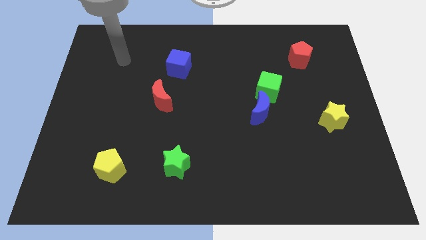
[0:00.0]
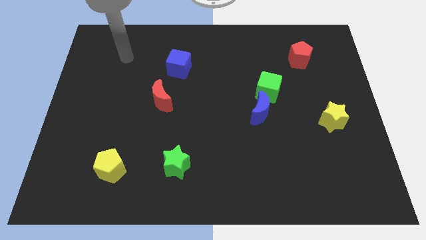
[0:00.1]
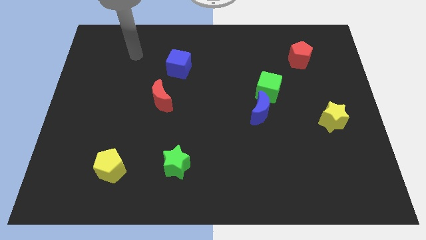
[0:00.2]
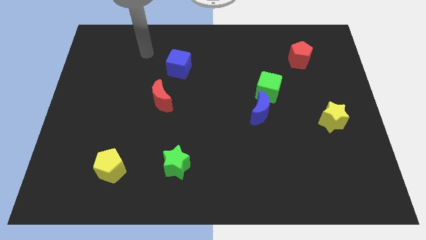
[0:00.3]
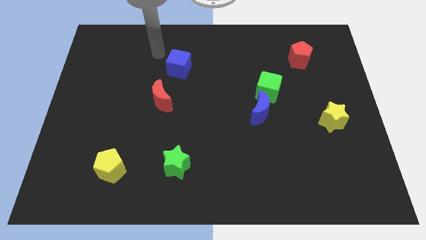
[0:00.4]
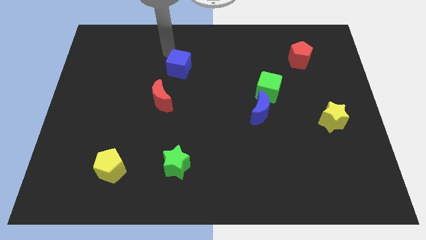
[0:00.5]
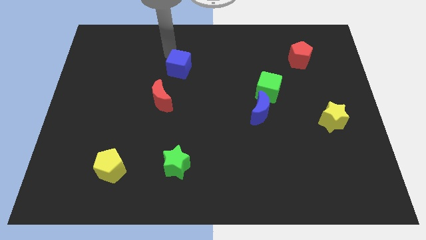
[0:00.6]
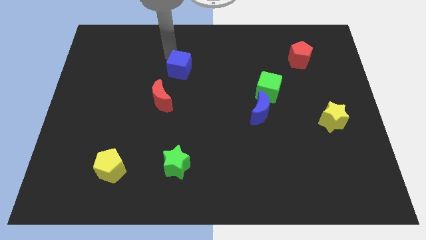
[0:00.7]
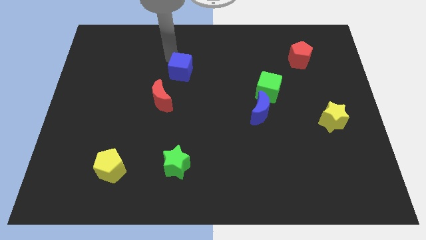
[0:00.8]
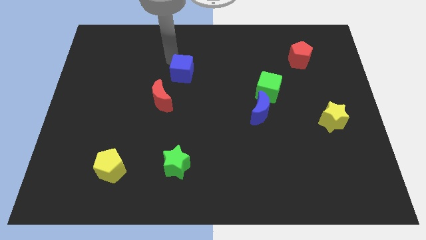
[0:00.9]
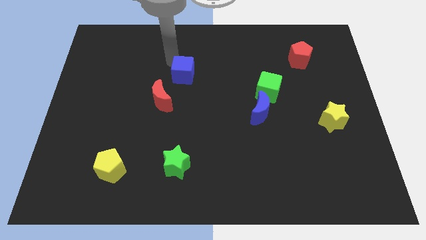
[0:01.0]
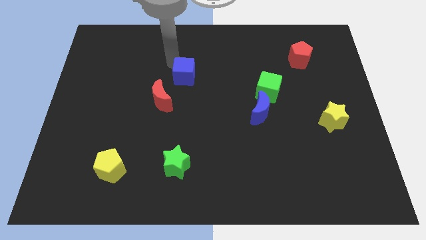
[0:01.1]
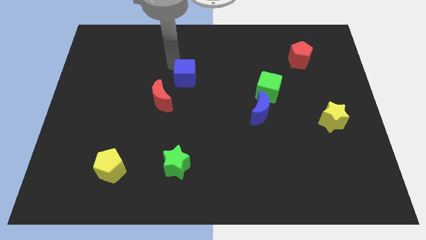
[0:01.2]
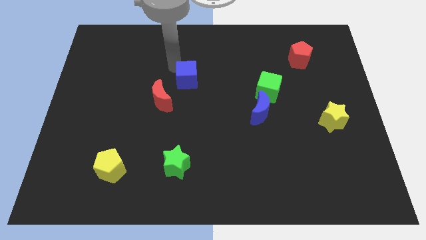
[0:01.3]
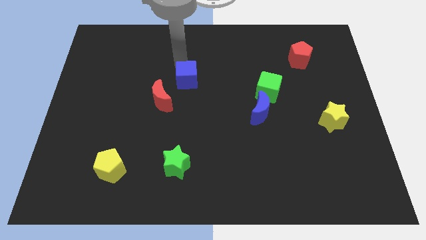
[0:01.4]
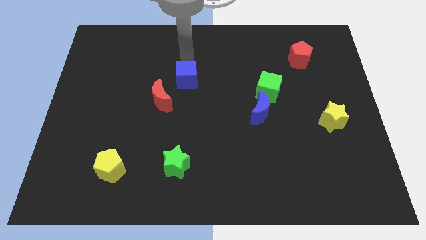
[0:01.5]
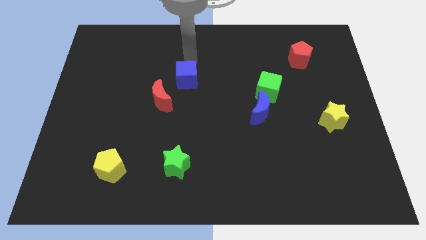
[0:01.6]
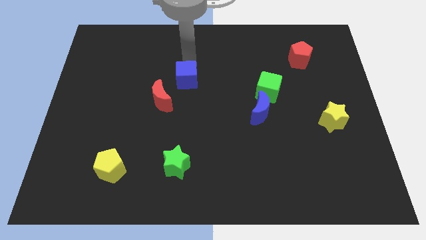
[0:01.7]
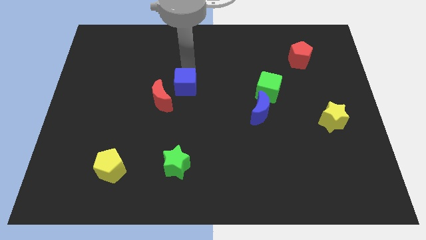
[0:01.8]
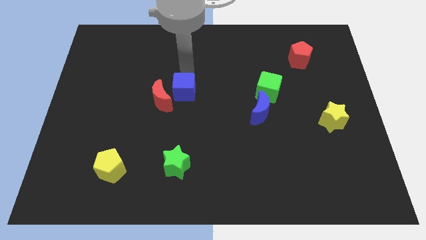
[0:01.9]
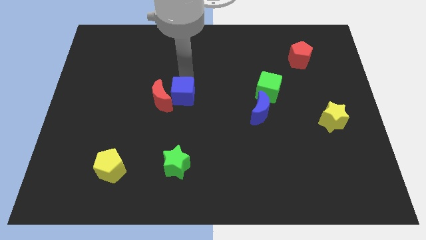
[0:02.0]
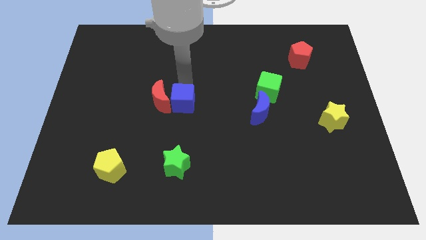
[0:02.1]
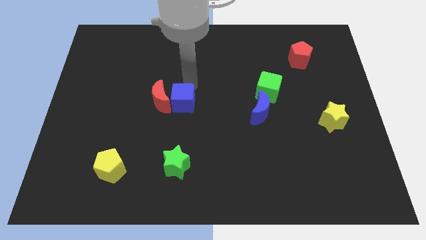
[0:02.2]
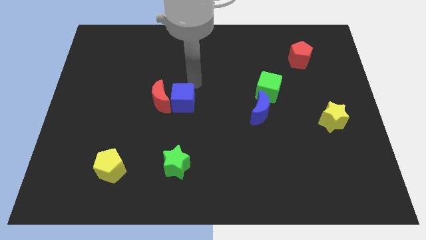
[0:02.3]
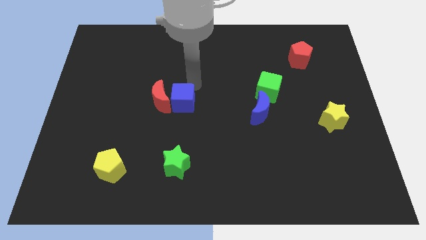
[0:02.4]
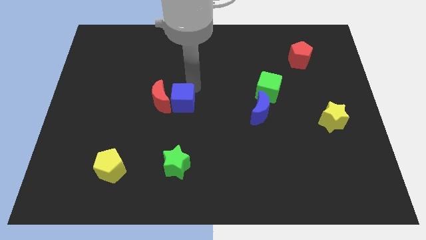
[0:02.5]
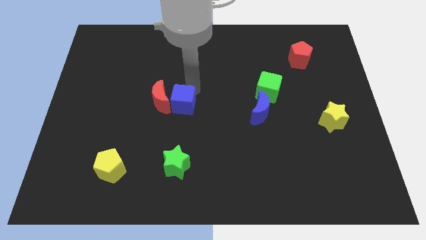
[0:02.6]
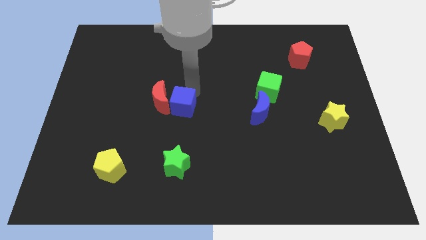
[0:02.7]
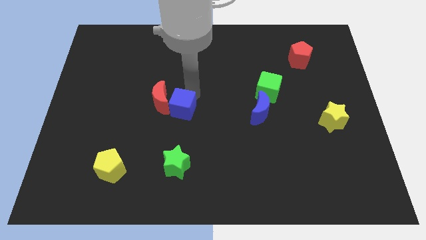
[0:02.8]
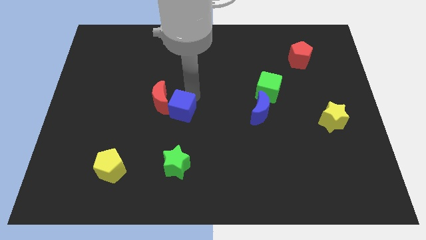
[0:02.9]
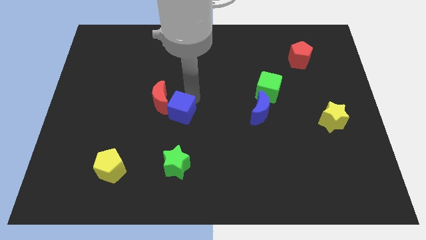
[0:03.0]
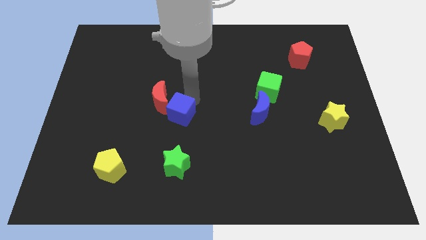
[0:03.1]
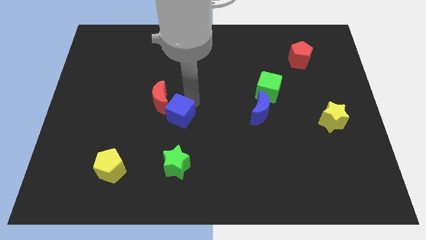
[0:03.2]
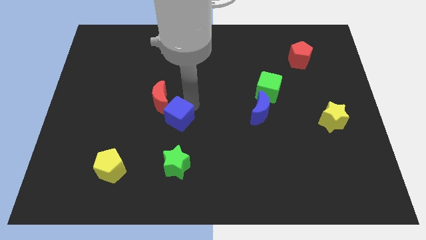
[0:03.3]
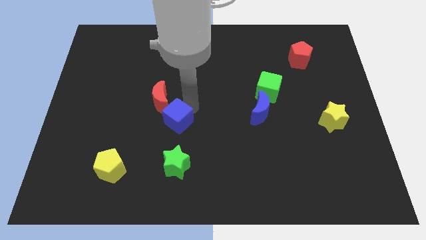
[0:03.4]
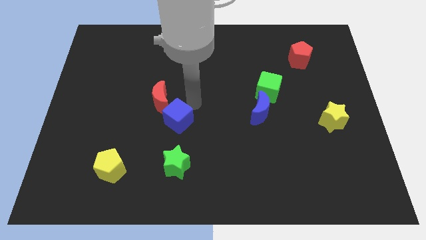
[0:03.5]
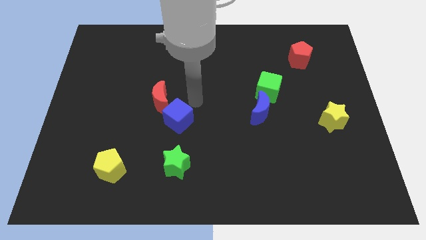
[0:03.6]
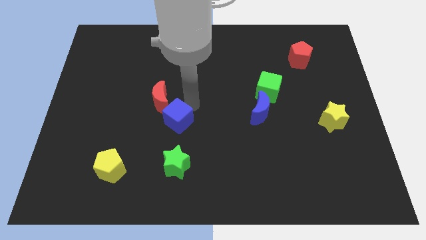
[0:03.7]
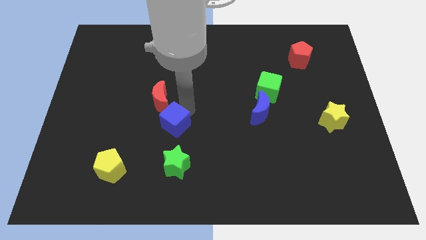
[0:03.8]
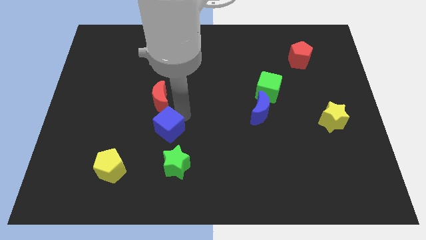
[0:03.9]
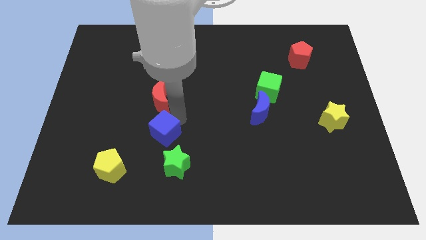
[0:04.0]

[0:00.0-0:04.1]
push the blue cube down

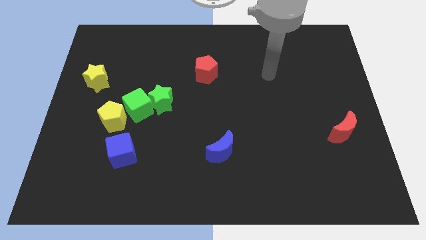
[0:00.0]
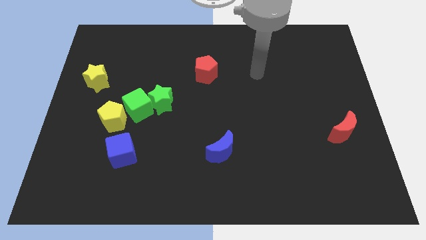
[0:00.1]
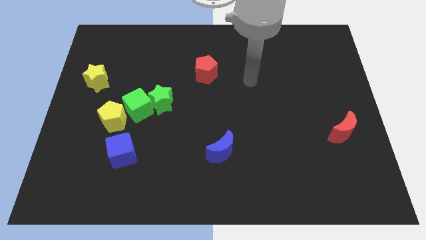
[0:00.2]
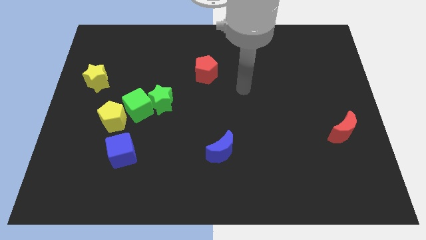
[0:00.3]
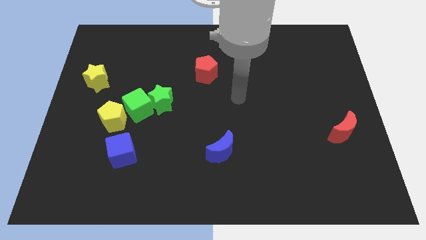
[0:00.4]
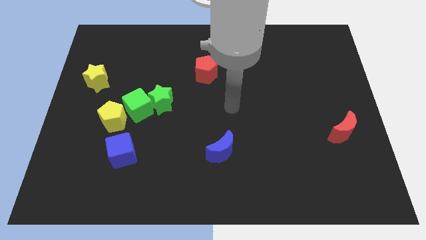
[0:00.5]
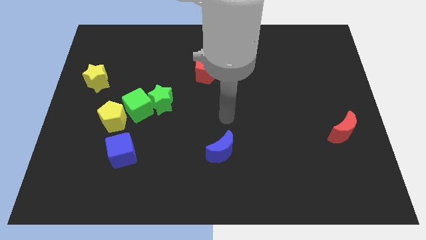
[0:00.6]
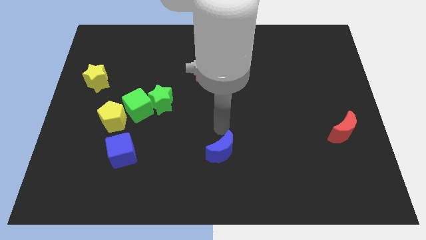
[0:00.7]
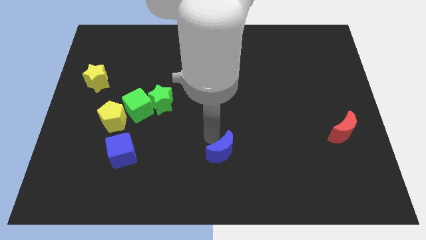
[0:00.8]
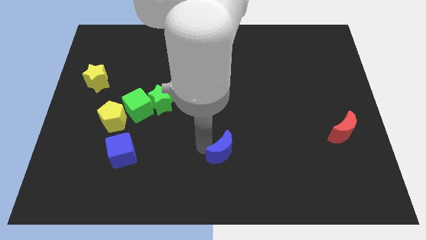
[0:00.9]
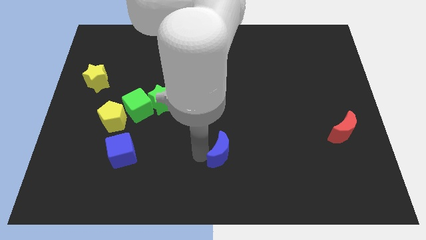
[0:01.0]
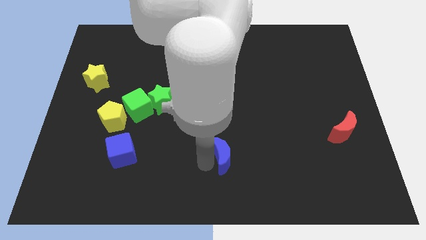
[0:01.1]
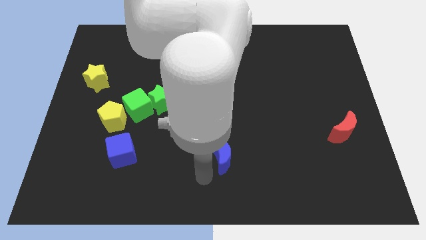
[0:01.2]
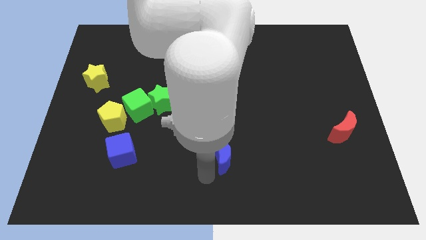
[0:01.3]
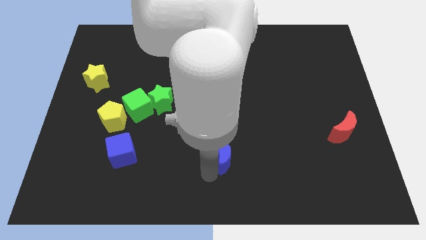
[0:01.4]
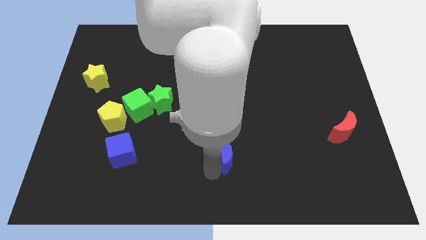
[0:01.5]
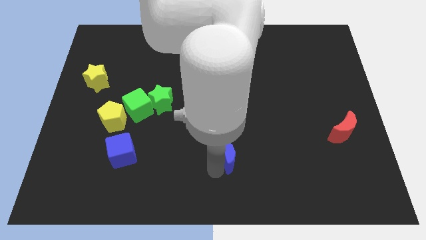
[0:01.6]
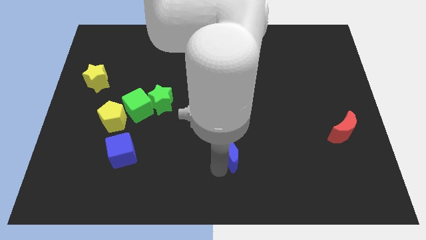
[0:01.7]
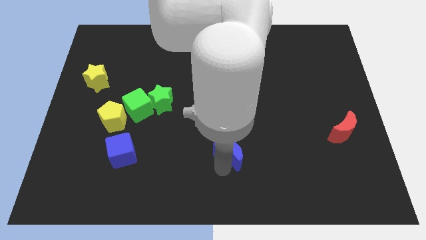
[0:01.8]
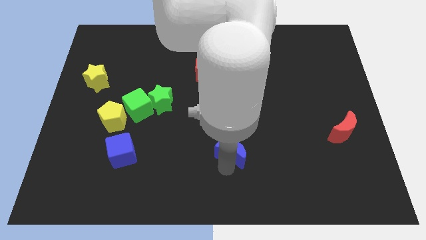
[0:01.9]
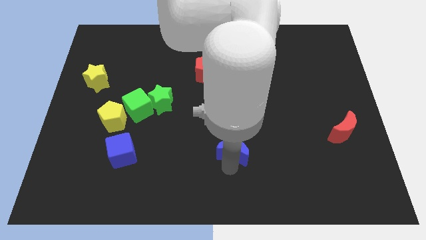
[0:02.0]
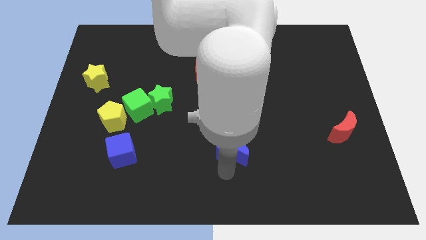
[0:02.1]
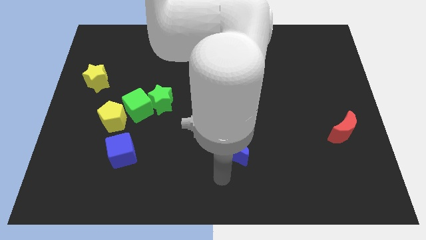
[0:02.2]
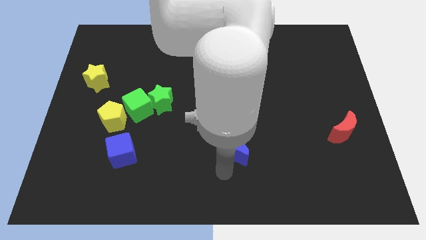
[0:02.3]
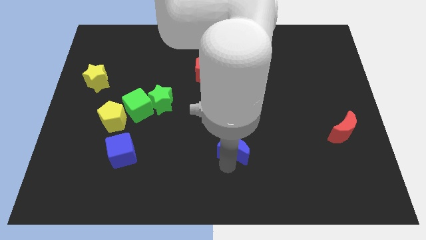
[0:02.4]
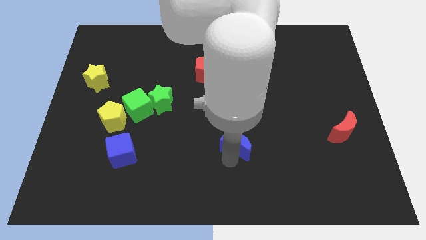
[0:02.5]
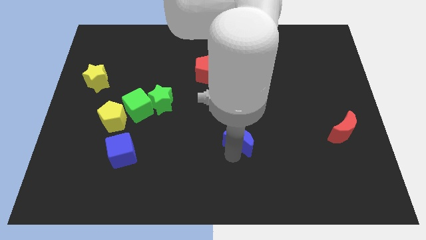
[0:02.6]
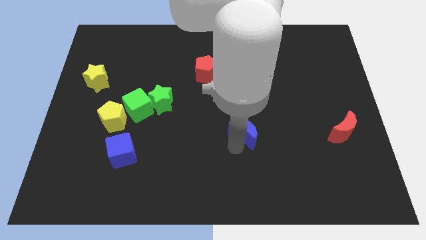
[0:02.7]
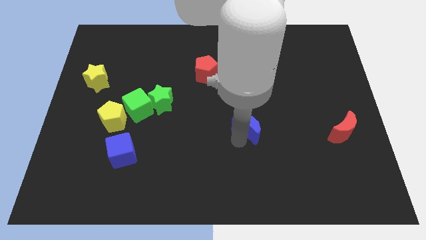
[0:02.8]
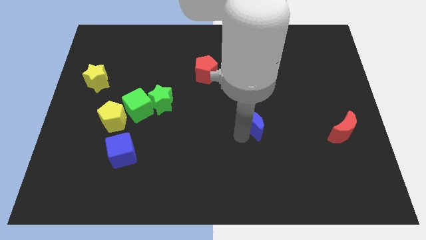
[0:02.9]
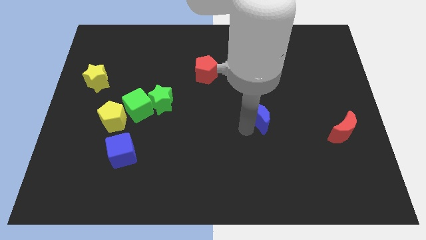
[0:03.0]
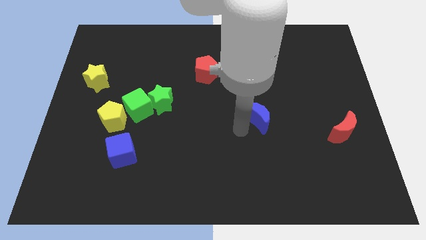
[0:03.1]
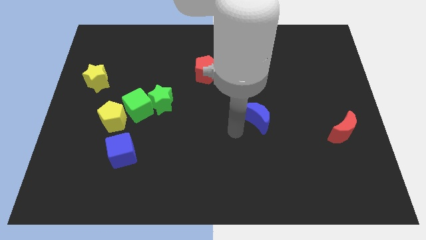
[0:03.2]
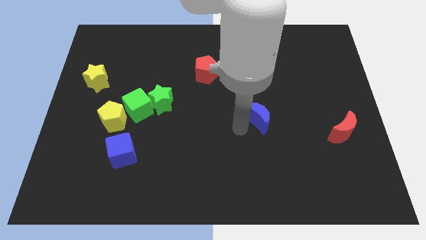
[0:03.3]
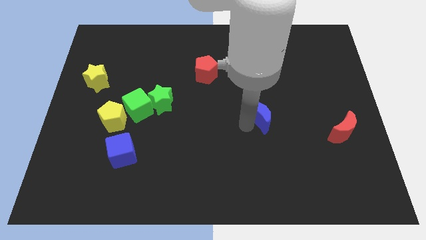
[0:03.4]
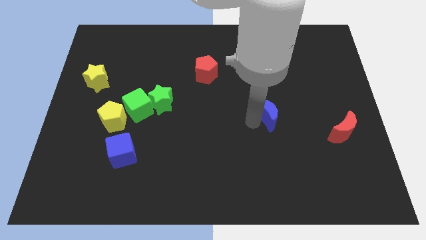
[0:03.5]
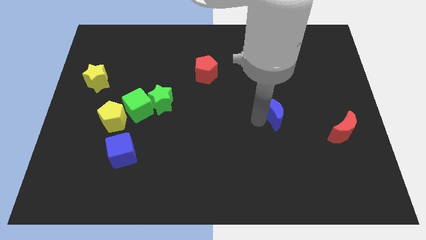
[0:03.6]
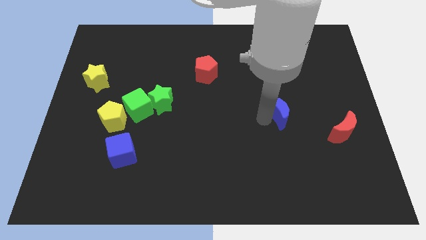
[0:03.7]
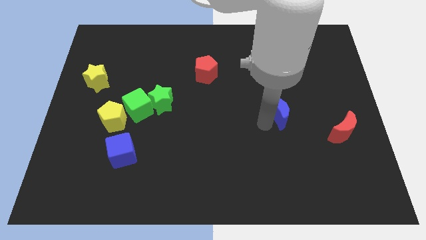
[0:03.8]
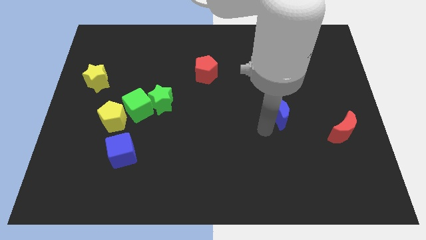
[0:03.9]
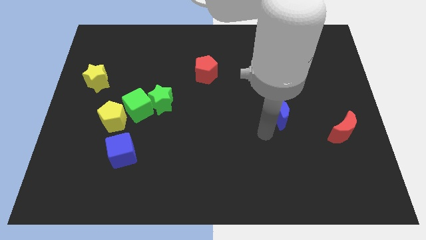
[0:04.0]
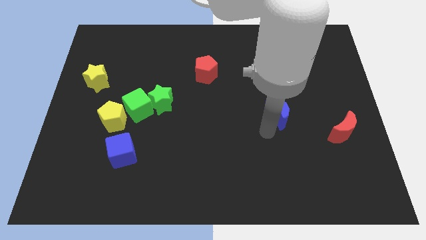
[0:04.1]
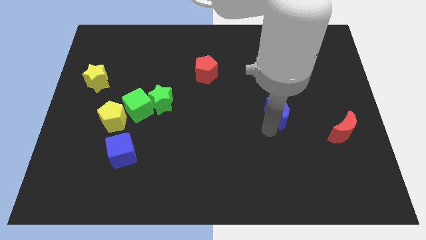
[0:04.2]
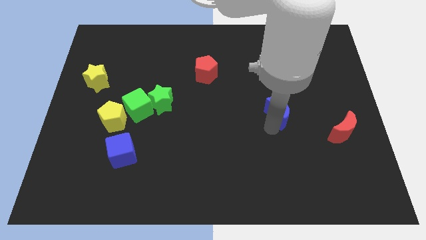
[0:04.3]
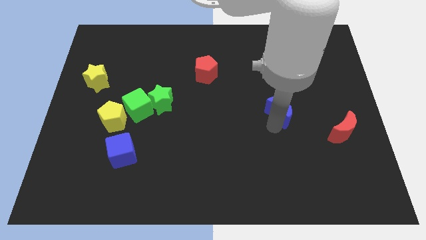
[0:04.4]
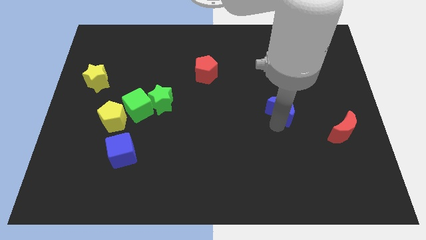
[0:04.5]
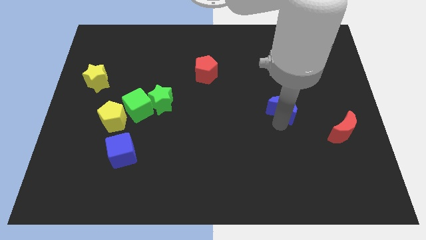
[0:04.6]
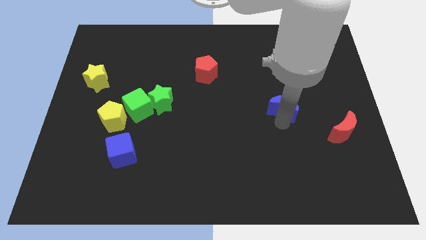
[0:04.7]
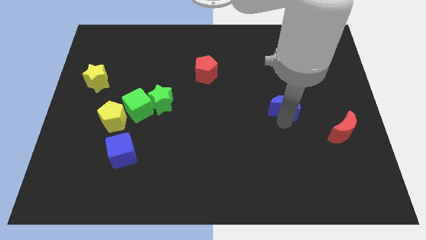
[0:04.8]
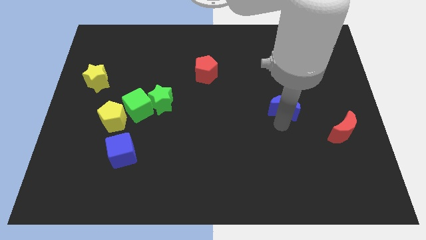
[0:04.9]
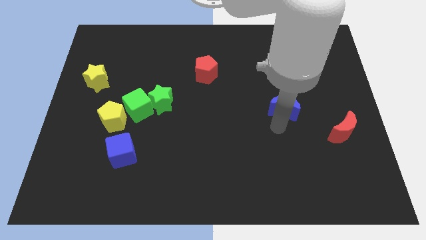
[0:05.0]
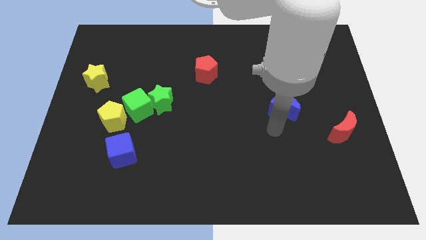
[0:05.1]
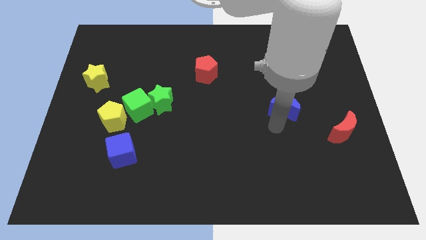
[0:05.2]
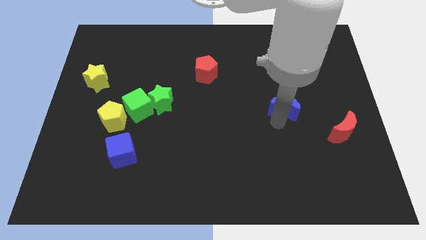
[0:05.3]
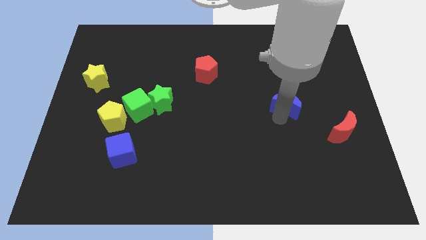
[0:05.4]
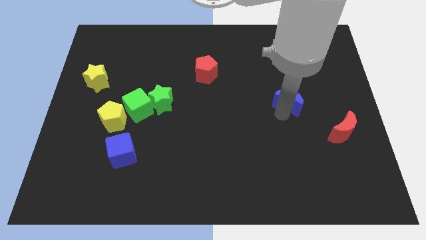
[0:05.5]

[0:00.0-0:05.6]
move the blue moon up and right
